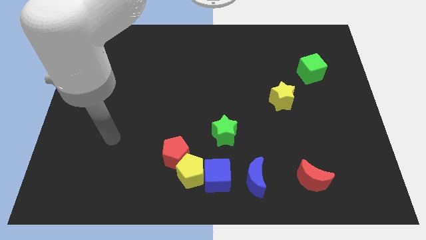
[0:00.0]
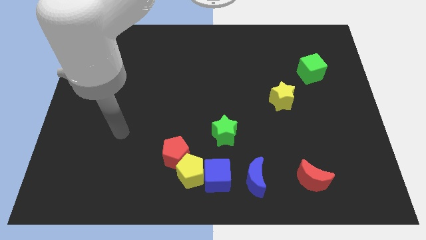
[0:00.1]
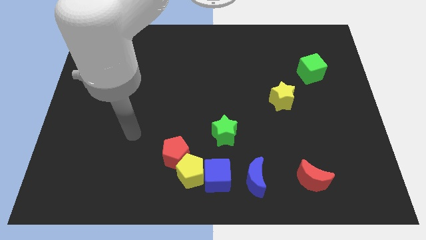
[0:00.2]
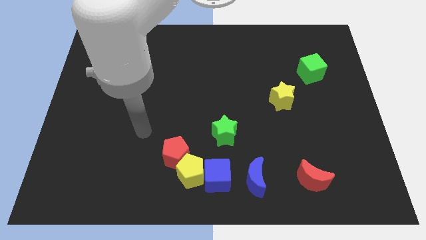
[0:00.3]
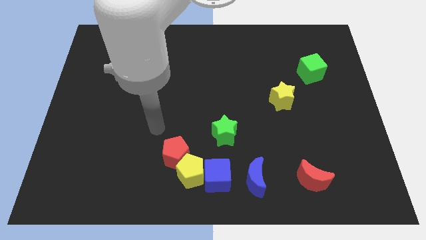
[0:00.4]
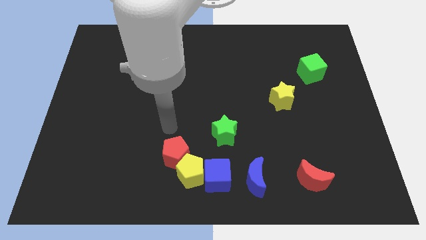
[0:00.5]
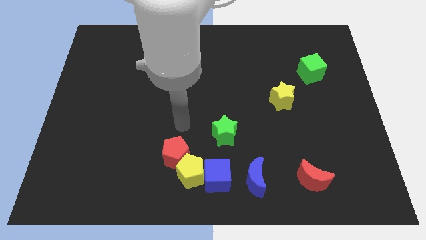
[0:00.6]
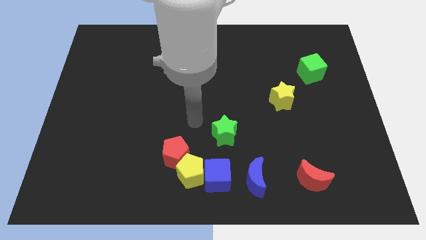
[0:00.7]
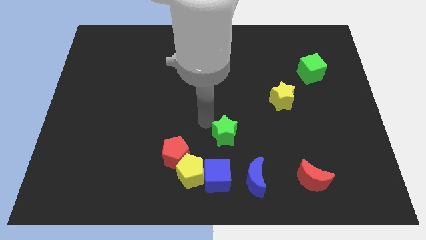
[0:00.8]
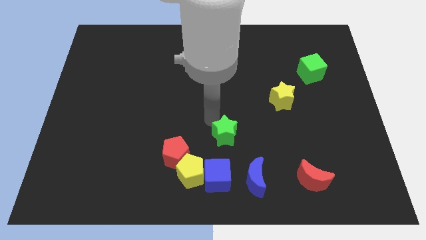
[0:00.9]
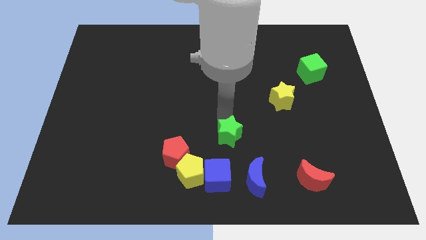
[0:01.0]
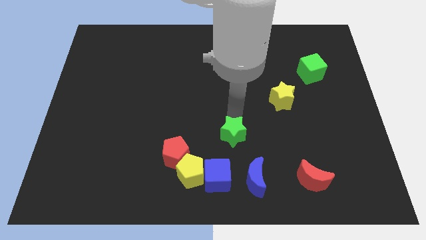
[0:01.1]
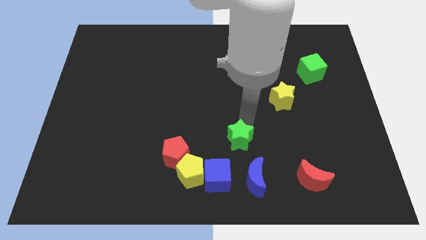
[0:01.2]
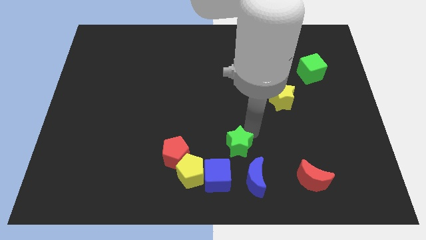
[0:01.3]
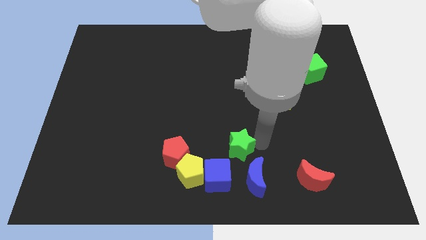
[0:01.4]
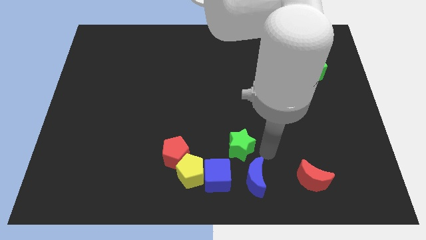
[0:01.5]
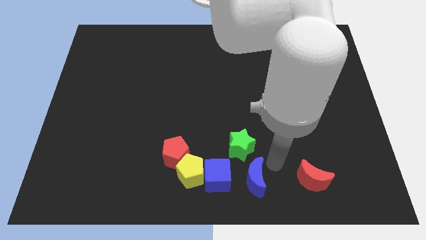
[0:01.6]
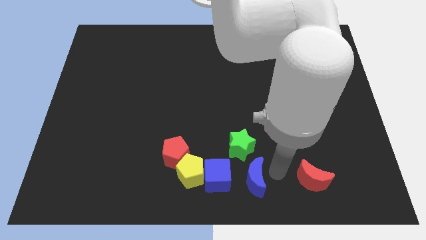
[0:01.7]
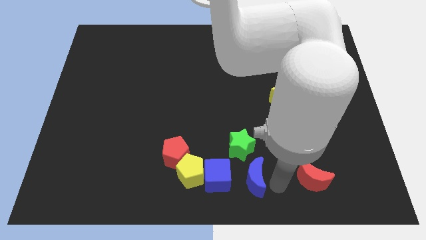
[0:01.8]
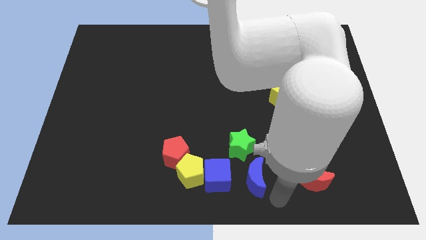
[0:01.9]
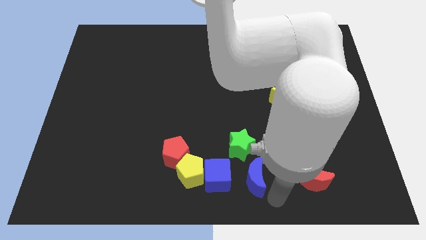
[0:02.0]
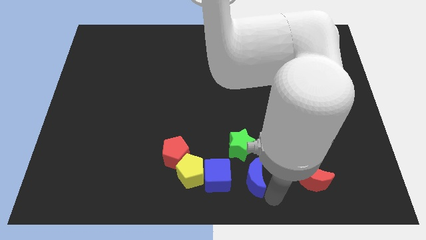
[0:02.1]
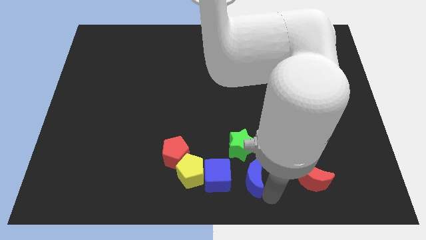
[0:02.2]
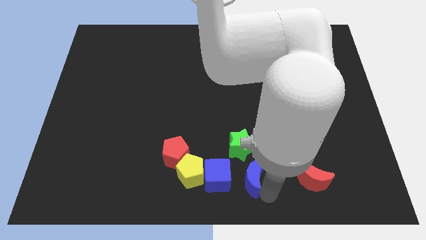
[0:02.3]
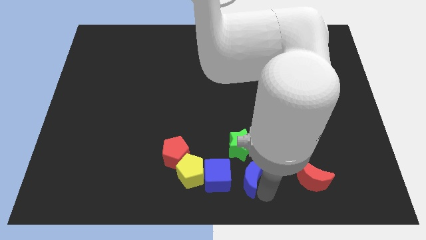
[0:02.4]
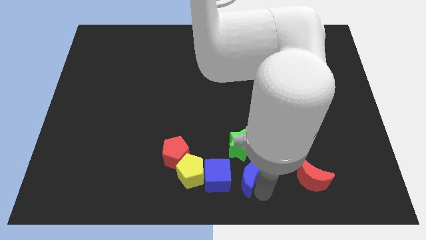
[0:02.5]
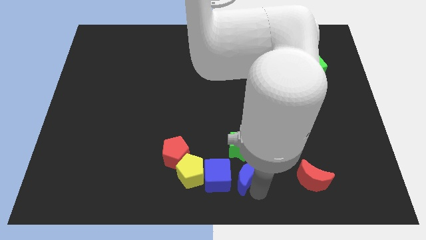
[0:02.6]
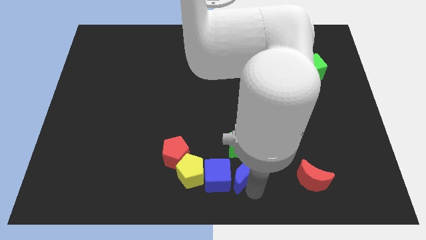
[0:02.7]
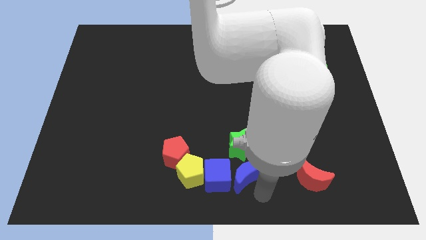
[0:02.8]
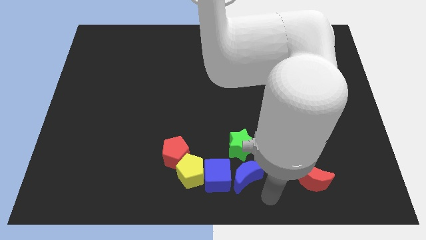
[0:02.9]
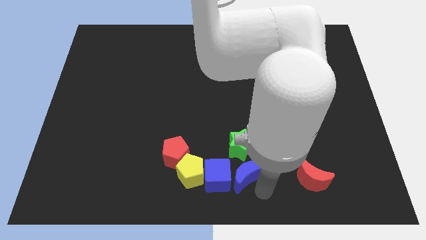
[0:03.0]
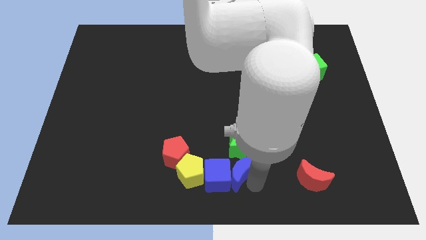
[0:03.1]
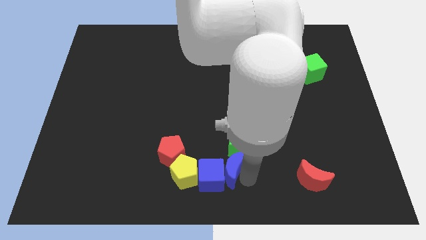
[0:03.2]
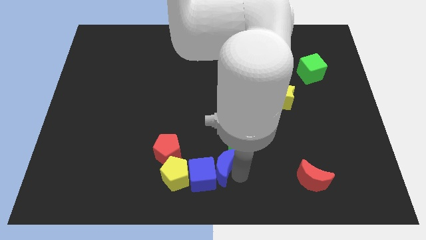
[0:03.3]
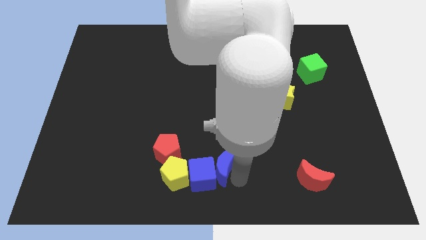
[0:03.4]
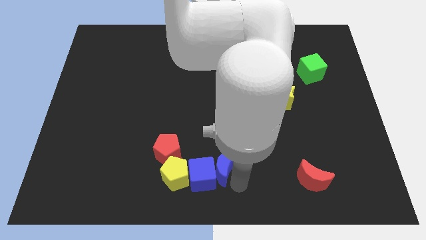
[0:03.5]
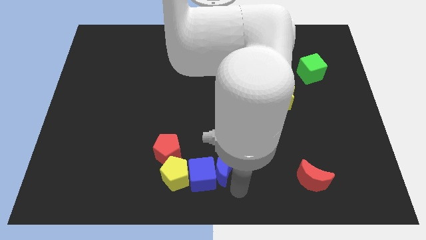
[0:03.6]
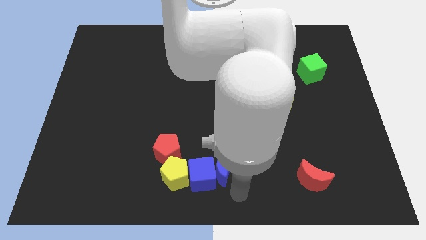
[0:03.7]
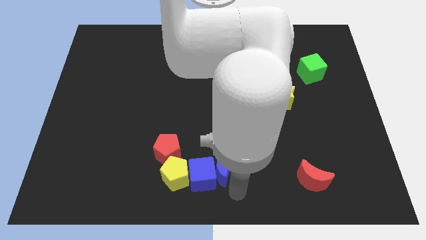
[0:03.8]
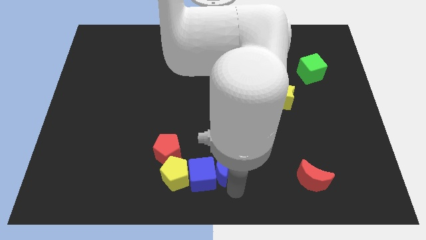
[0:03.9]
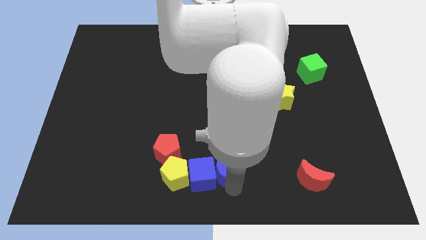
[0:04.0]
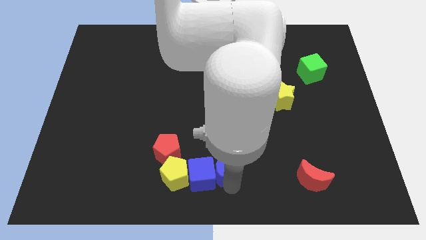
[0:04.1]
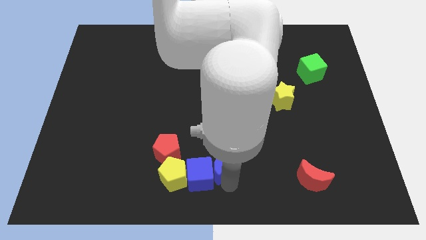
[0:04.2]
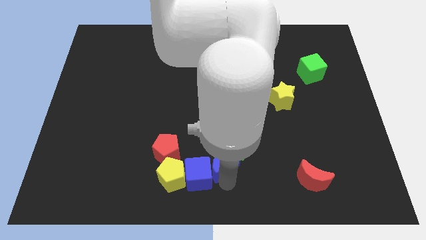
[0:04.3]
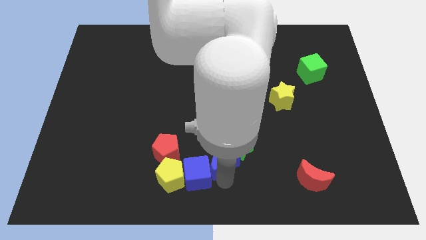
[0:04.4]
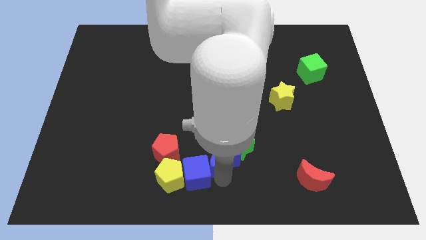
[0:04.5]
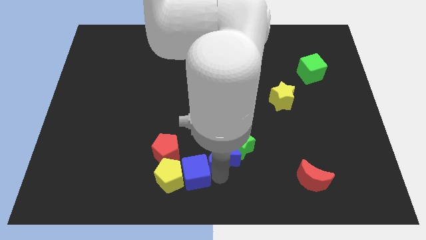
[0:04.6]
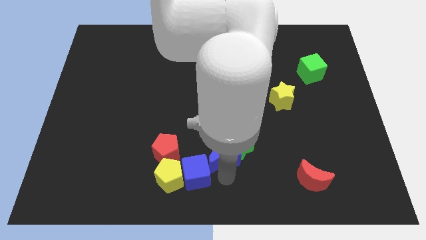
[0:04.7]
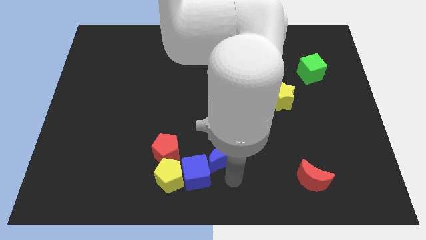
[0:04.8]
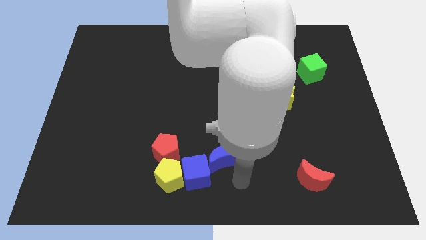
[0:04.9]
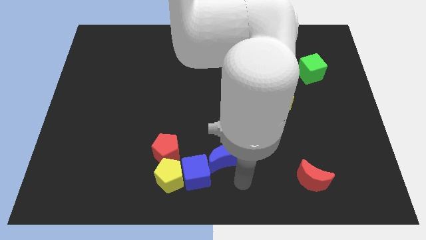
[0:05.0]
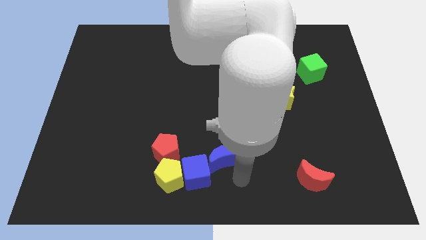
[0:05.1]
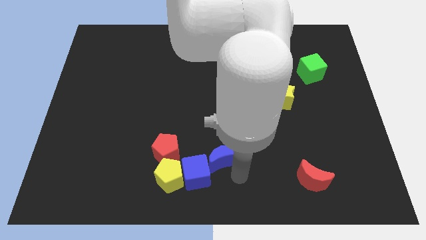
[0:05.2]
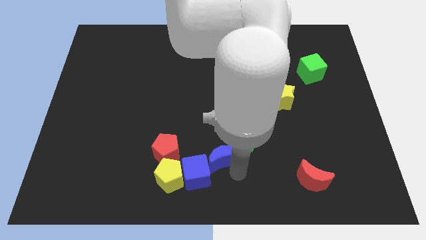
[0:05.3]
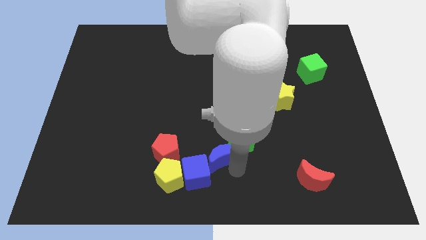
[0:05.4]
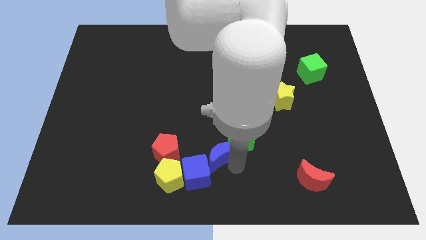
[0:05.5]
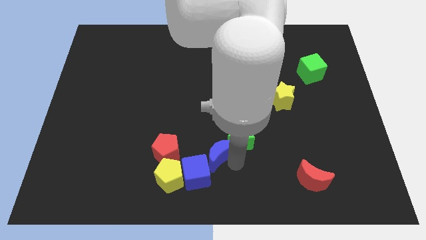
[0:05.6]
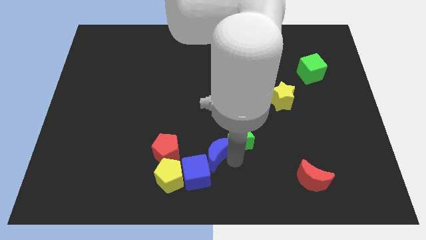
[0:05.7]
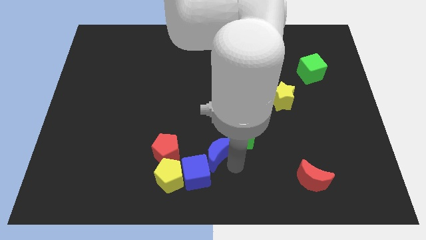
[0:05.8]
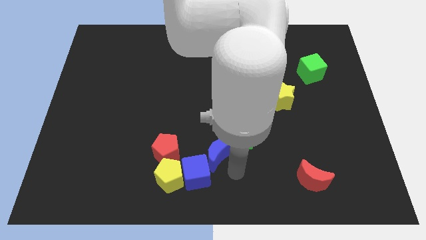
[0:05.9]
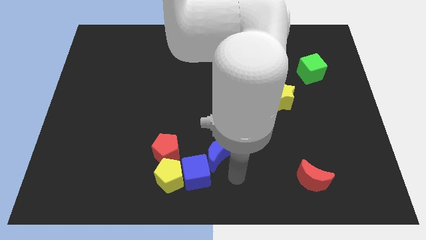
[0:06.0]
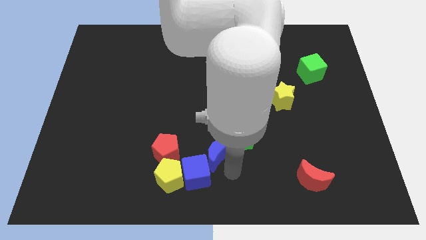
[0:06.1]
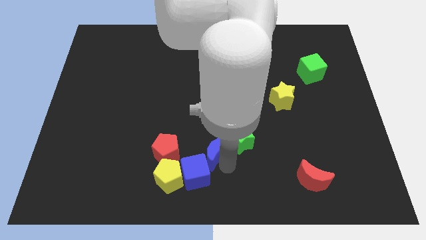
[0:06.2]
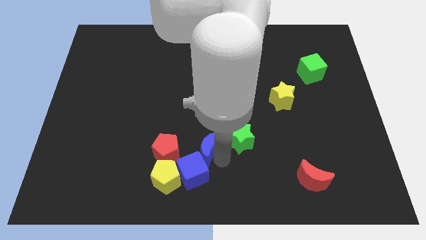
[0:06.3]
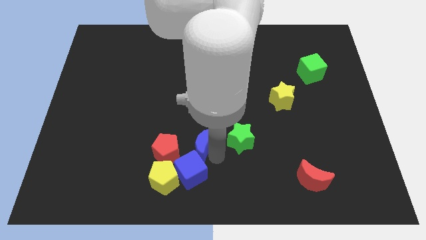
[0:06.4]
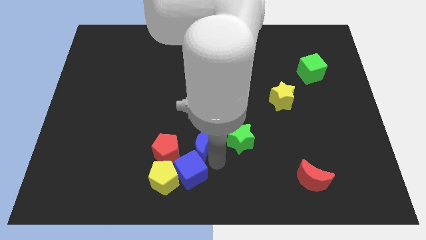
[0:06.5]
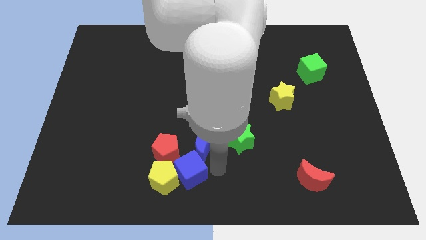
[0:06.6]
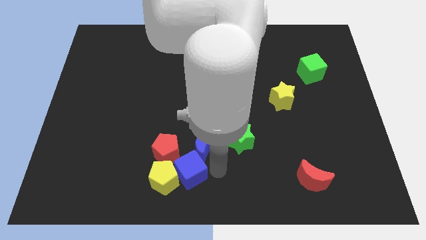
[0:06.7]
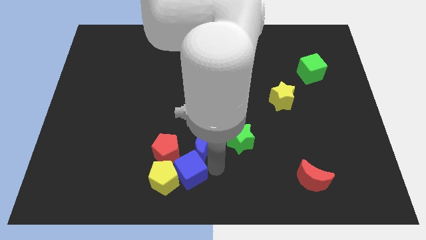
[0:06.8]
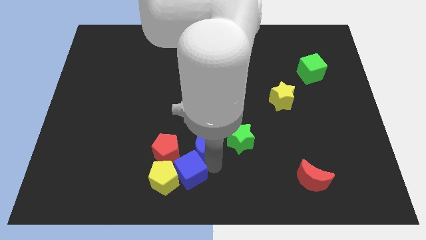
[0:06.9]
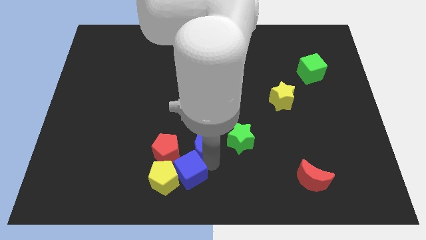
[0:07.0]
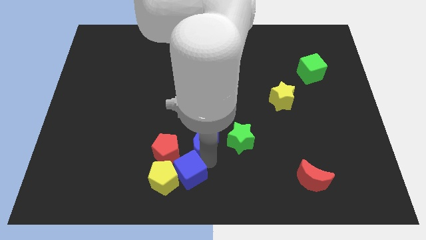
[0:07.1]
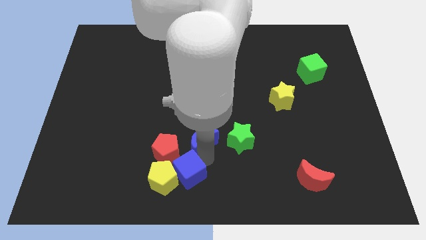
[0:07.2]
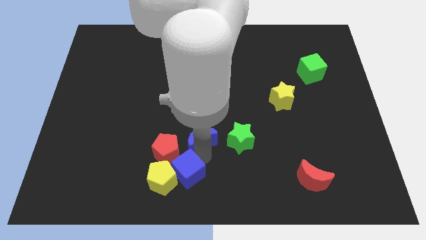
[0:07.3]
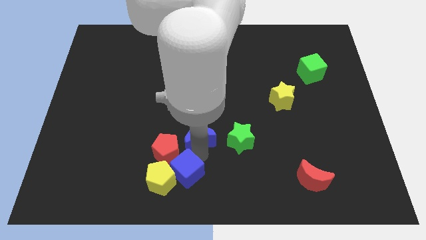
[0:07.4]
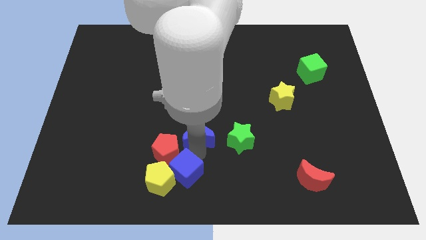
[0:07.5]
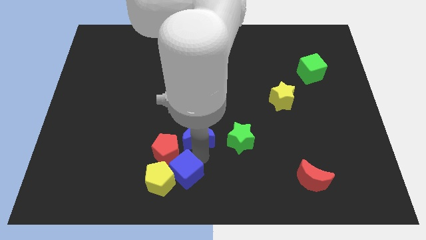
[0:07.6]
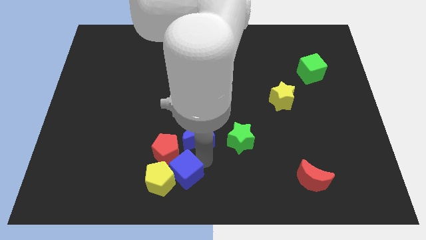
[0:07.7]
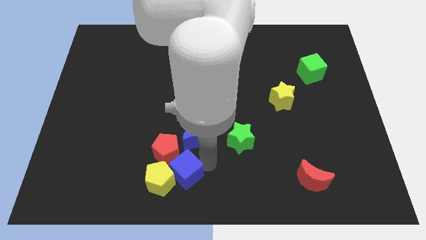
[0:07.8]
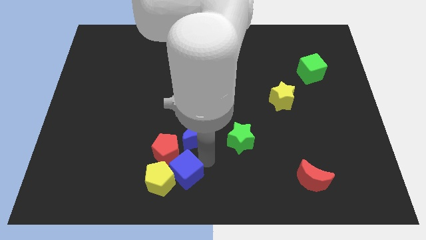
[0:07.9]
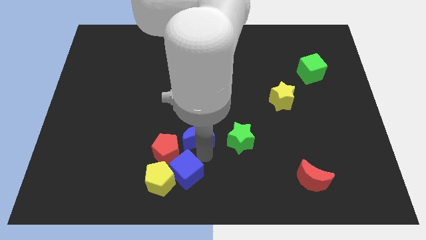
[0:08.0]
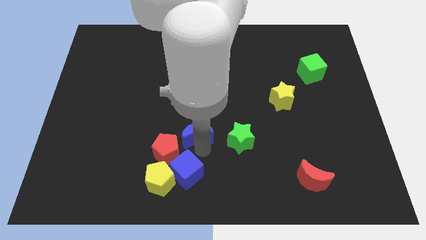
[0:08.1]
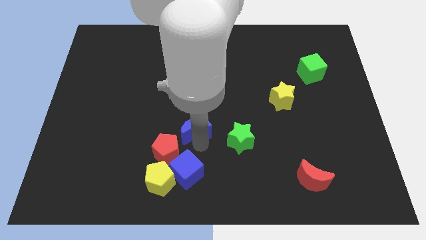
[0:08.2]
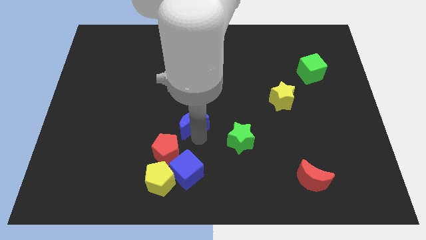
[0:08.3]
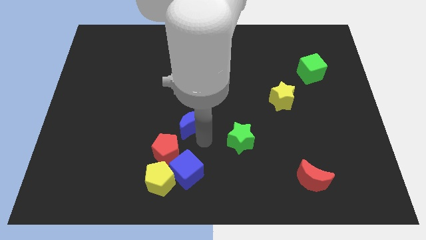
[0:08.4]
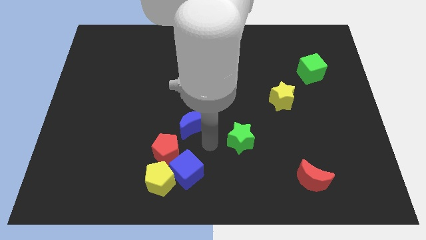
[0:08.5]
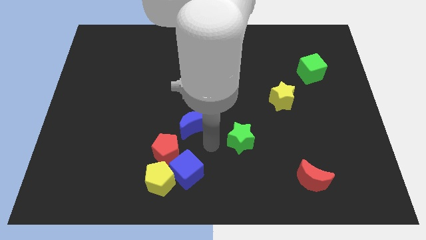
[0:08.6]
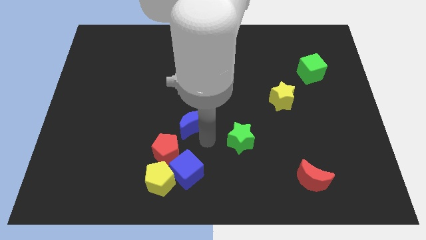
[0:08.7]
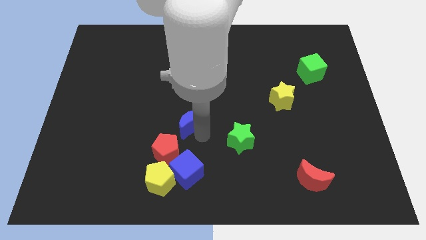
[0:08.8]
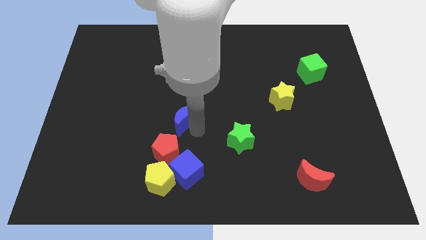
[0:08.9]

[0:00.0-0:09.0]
push the blue moon diagonally up and left
